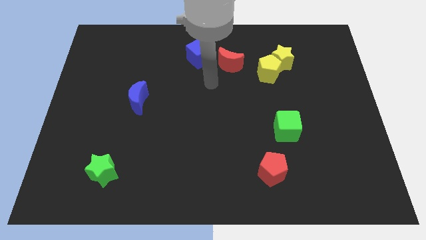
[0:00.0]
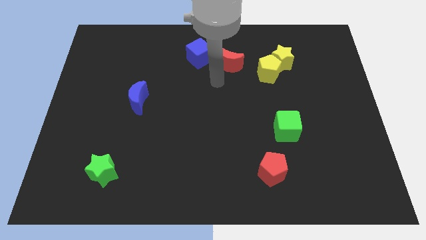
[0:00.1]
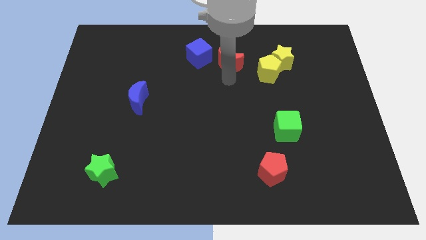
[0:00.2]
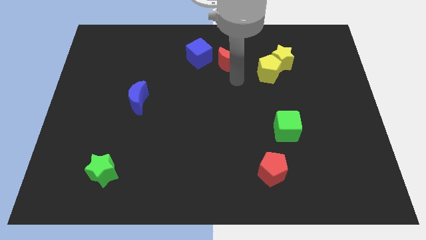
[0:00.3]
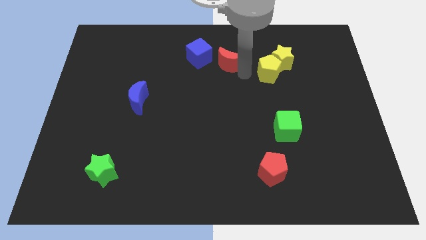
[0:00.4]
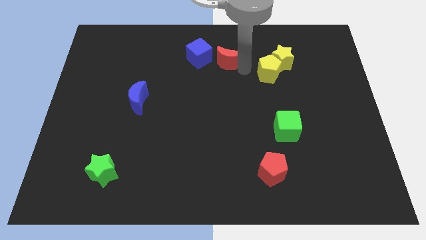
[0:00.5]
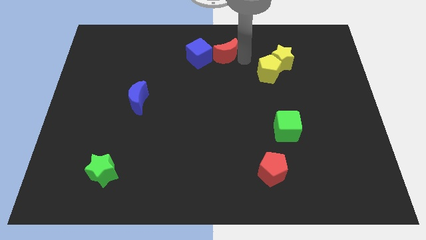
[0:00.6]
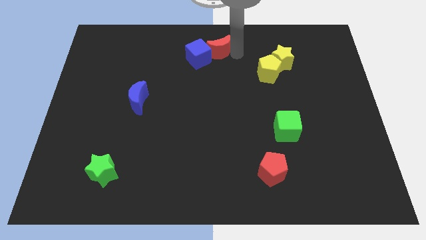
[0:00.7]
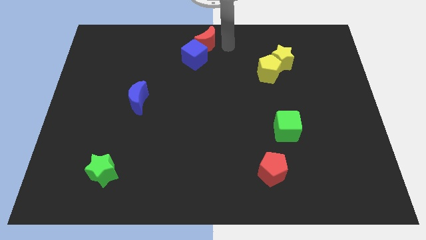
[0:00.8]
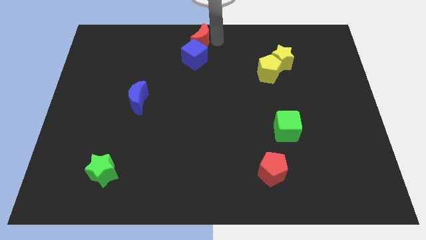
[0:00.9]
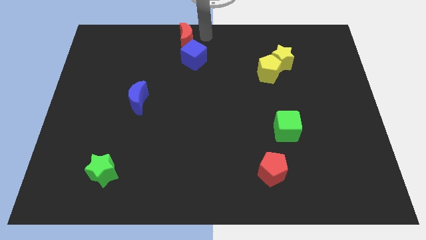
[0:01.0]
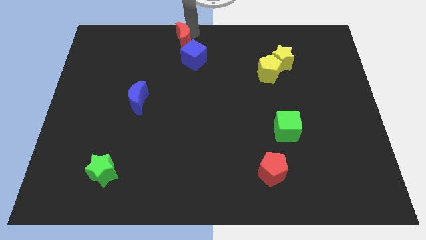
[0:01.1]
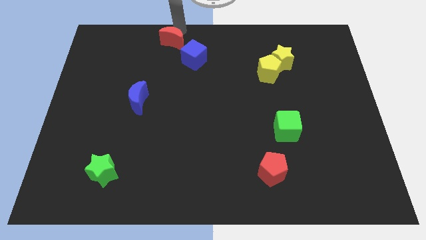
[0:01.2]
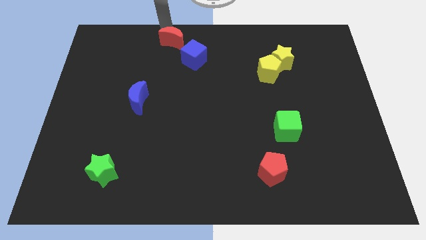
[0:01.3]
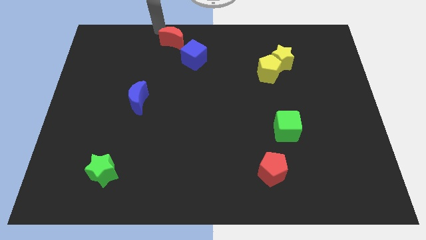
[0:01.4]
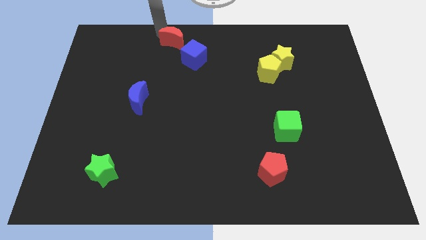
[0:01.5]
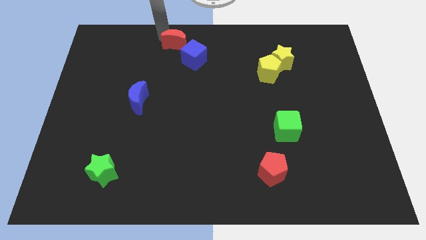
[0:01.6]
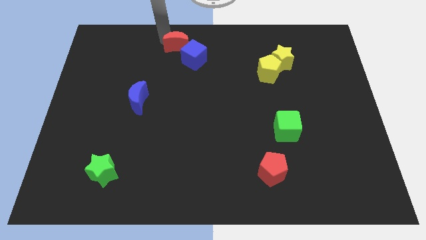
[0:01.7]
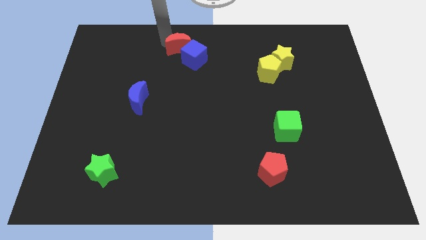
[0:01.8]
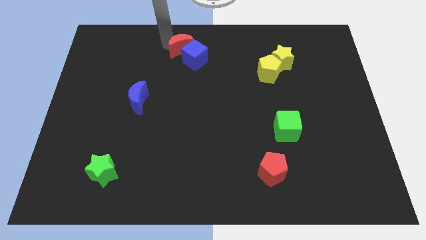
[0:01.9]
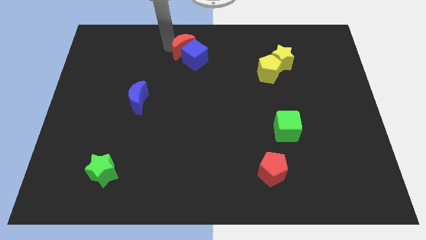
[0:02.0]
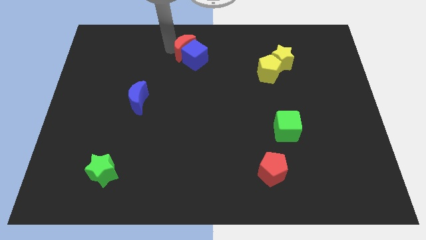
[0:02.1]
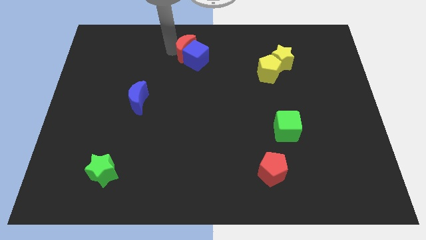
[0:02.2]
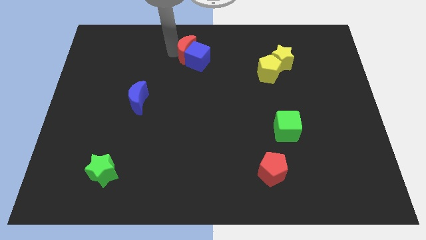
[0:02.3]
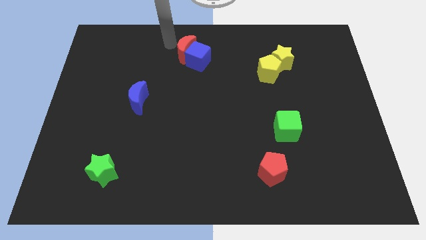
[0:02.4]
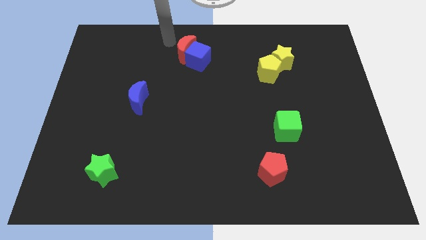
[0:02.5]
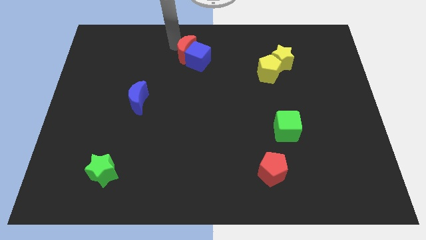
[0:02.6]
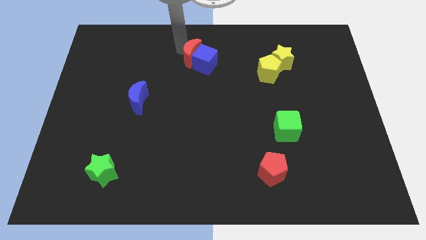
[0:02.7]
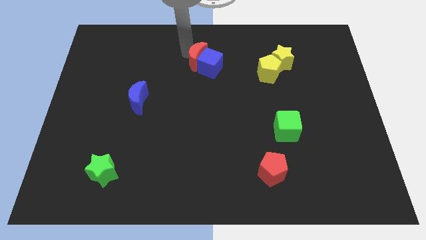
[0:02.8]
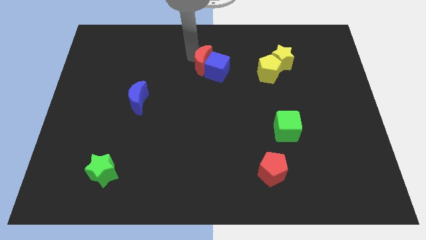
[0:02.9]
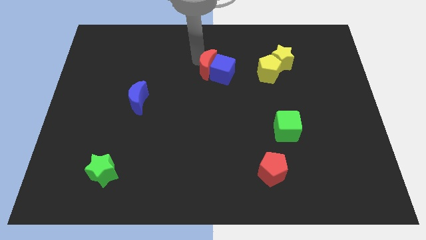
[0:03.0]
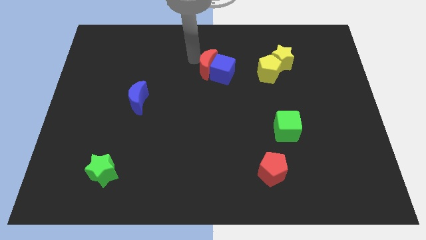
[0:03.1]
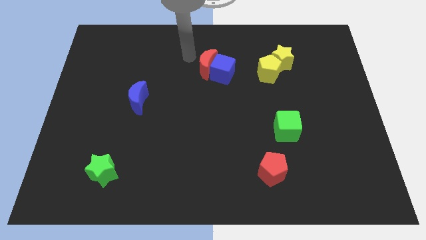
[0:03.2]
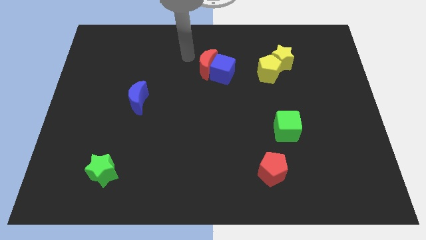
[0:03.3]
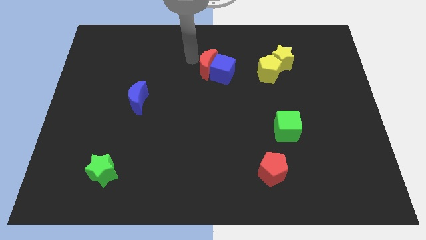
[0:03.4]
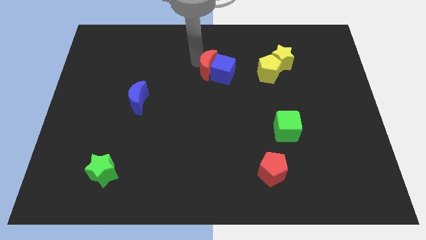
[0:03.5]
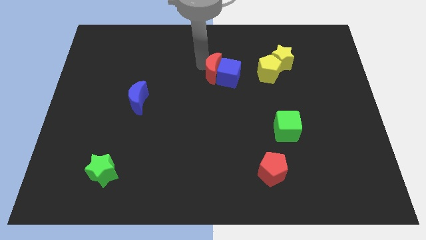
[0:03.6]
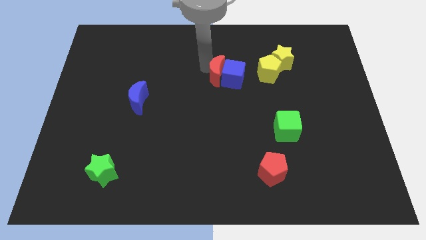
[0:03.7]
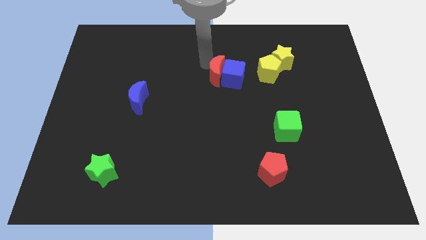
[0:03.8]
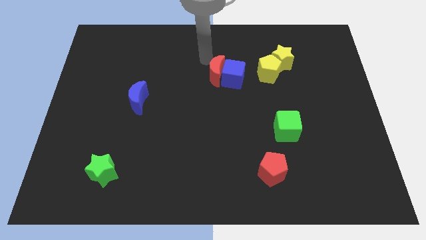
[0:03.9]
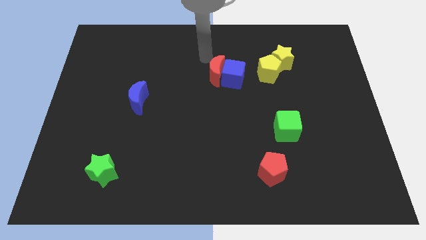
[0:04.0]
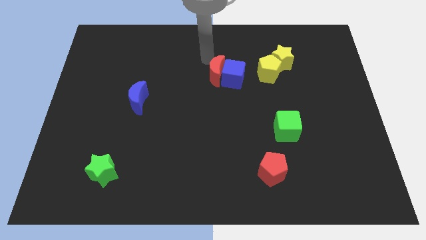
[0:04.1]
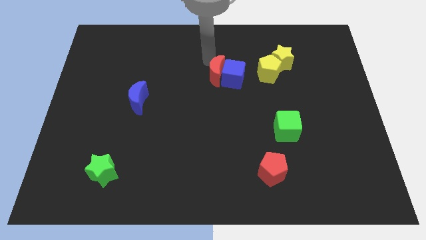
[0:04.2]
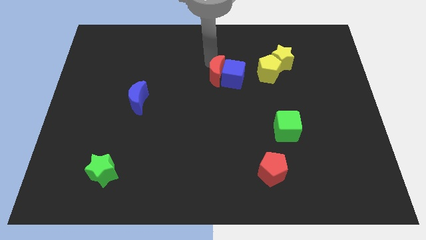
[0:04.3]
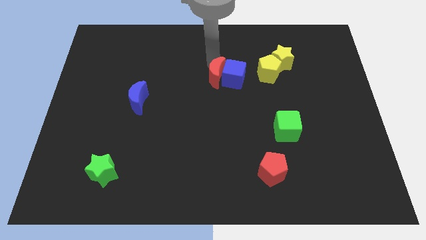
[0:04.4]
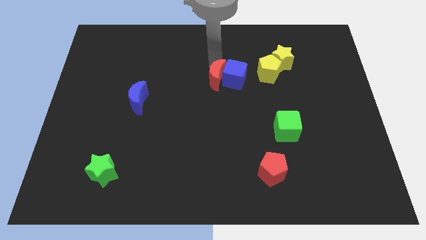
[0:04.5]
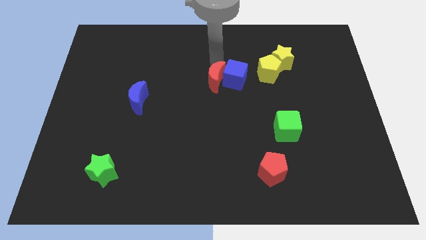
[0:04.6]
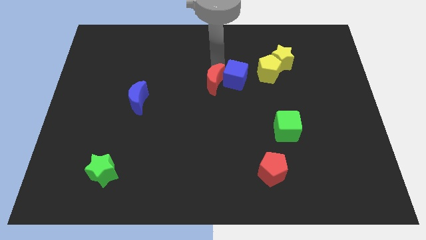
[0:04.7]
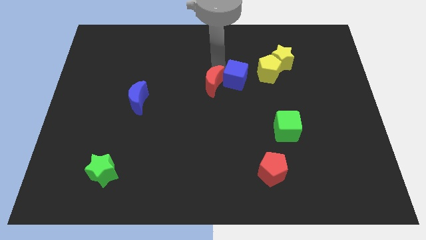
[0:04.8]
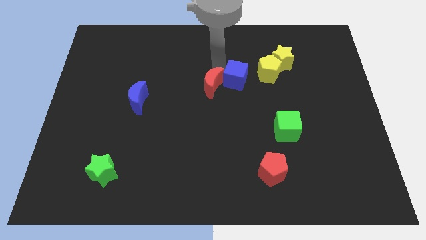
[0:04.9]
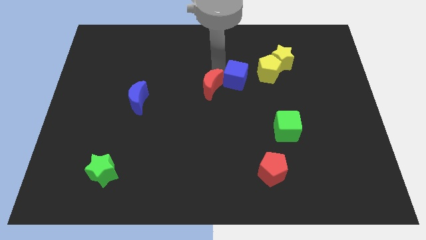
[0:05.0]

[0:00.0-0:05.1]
slightly slide the red moon downwards

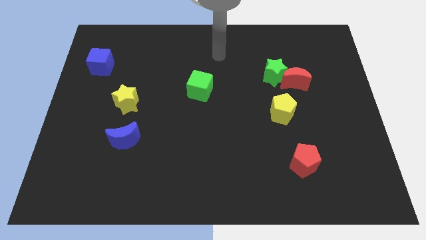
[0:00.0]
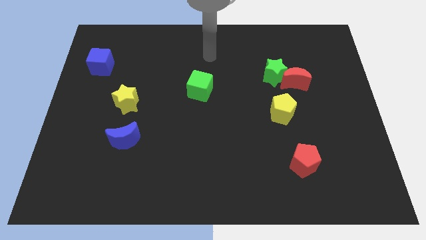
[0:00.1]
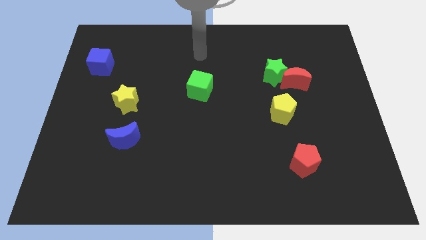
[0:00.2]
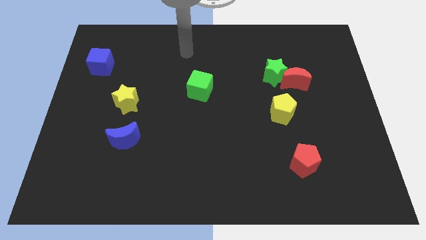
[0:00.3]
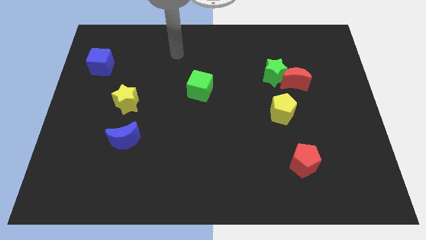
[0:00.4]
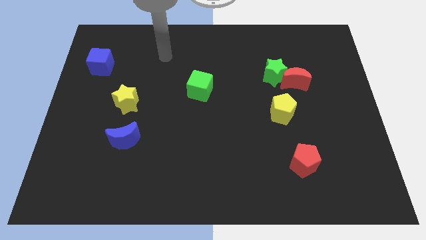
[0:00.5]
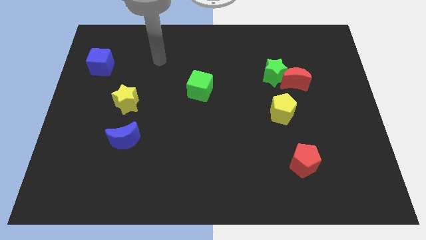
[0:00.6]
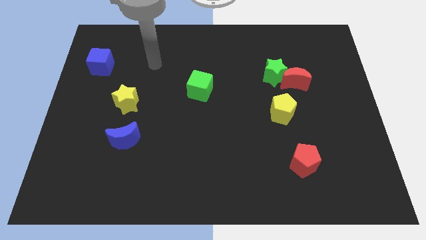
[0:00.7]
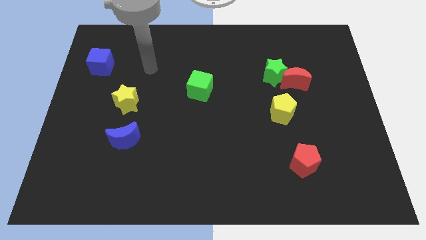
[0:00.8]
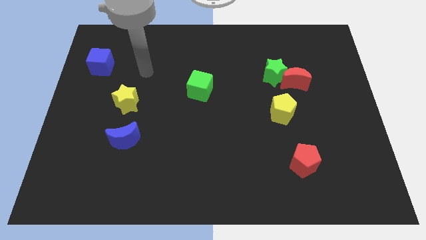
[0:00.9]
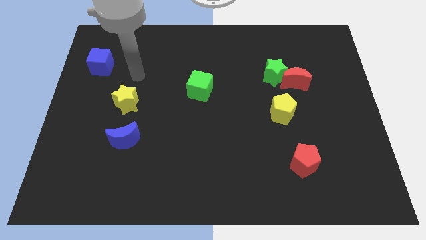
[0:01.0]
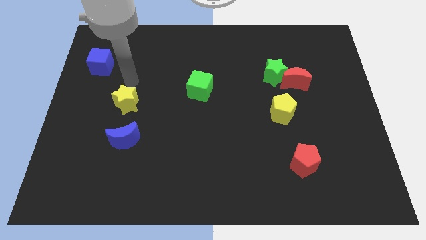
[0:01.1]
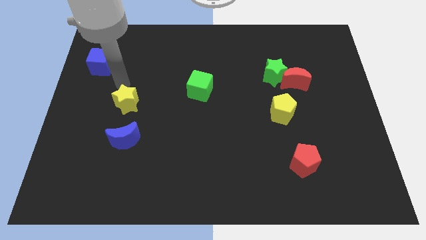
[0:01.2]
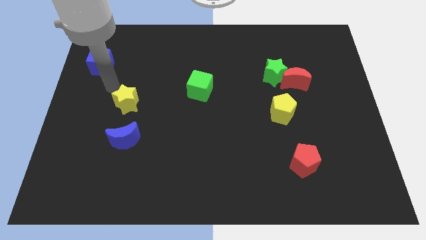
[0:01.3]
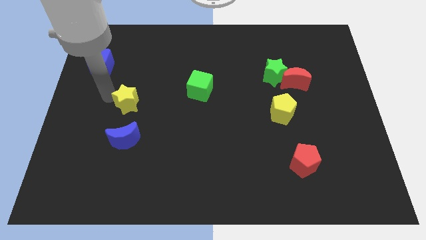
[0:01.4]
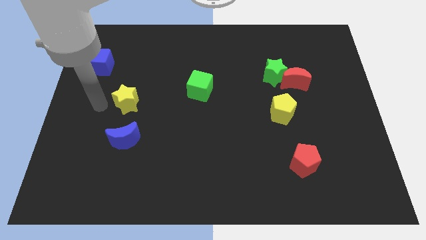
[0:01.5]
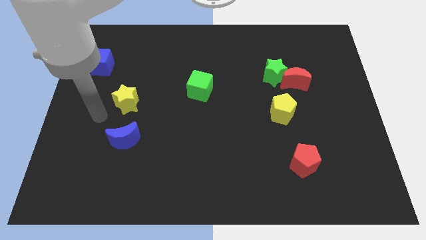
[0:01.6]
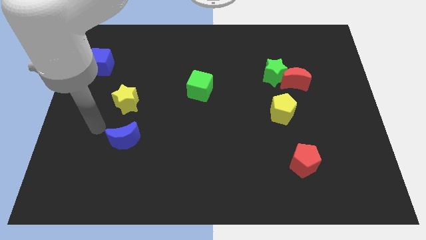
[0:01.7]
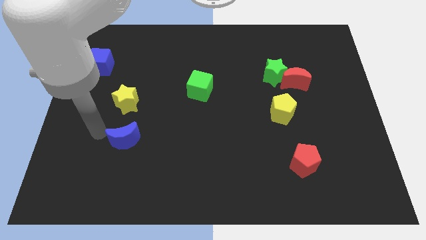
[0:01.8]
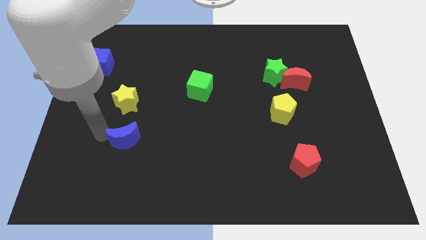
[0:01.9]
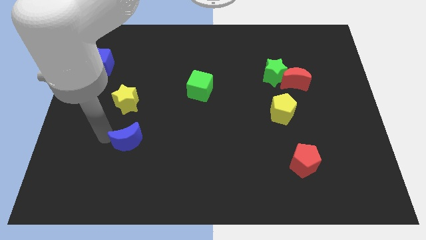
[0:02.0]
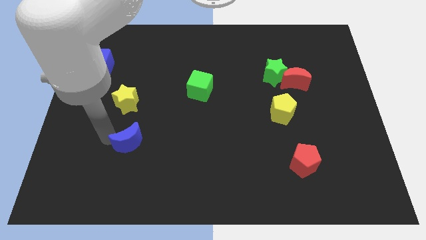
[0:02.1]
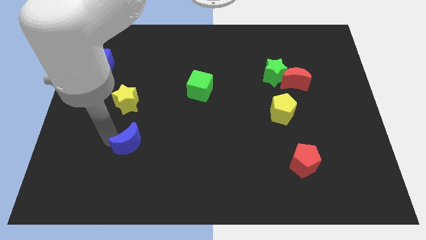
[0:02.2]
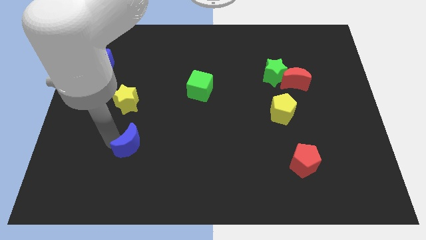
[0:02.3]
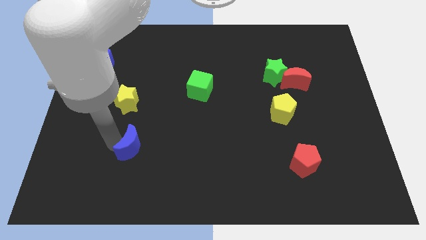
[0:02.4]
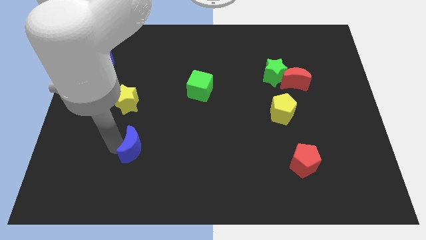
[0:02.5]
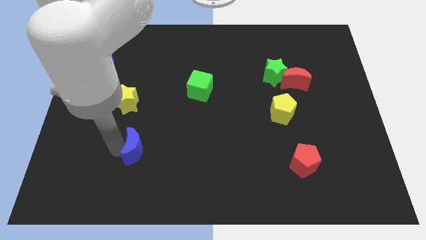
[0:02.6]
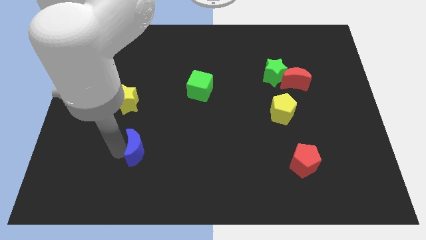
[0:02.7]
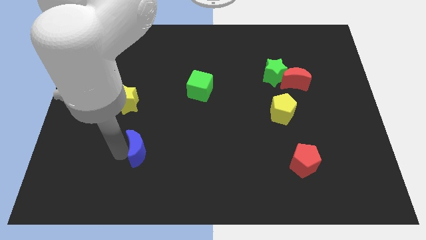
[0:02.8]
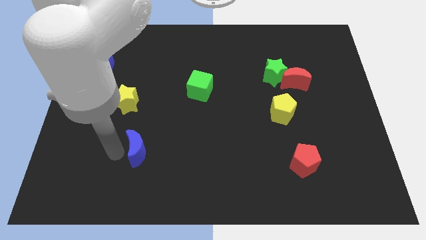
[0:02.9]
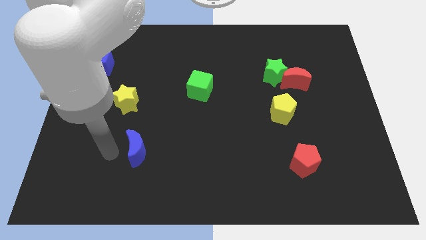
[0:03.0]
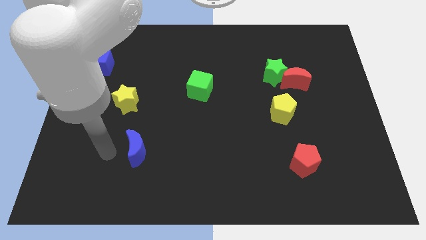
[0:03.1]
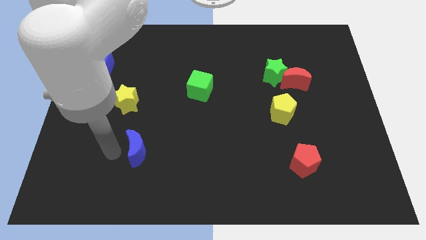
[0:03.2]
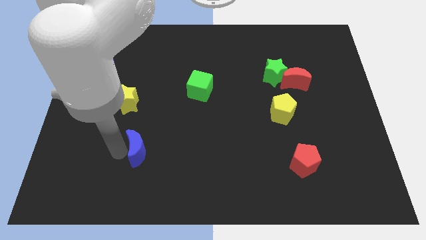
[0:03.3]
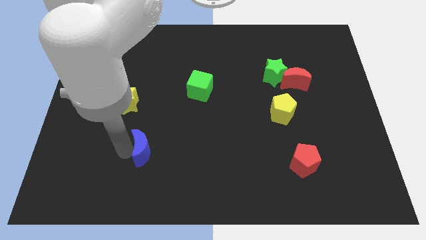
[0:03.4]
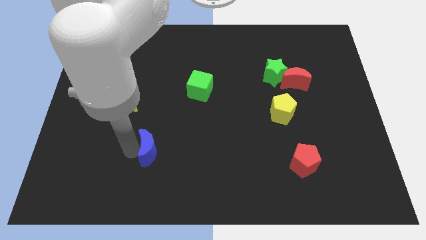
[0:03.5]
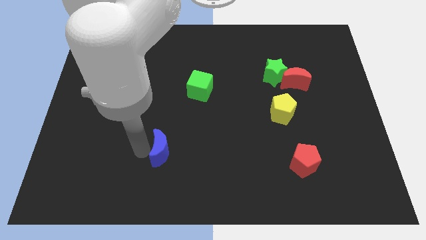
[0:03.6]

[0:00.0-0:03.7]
slightly push the blue moon right
